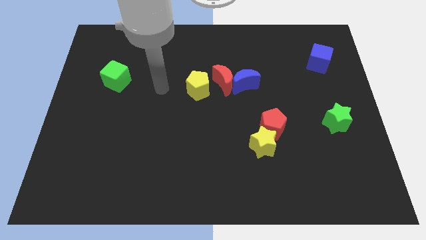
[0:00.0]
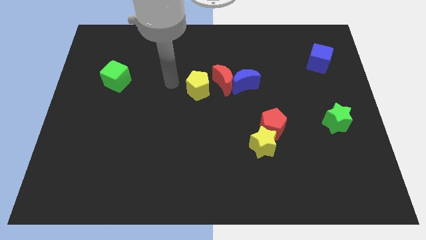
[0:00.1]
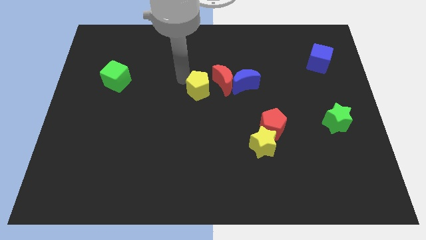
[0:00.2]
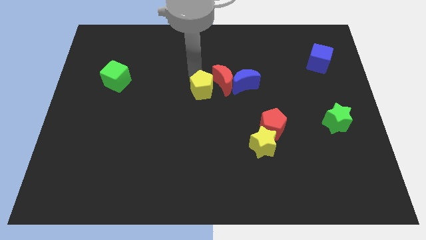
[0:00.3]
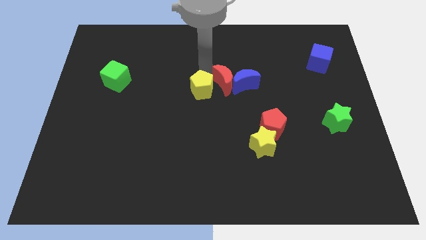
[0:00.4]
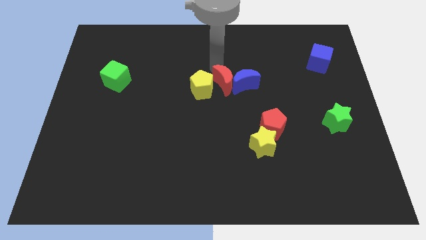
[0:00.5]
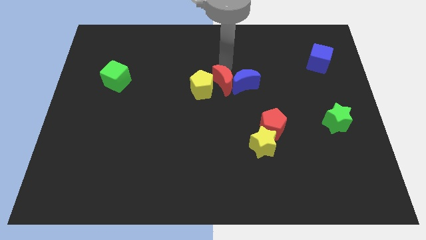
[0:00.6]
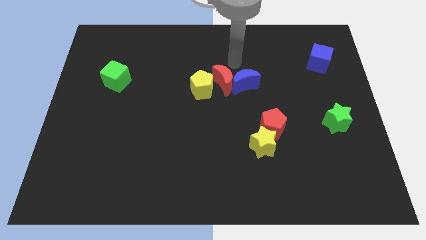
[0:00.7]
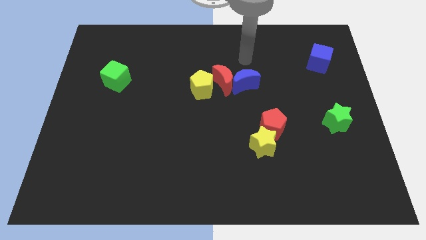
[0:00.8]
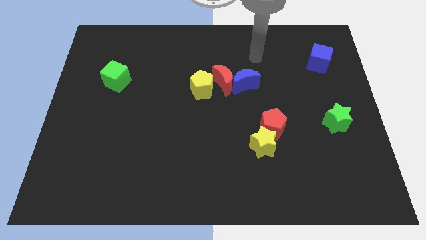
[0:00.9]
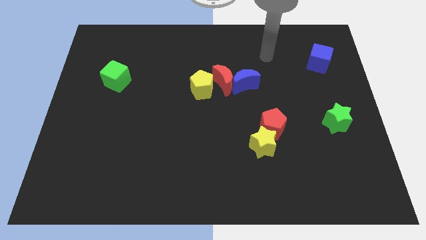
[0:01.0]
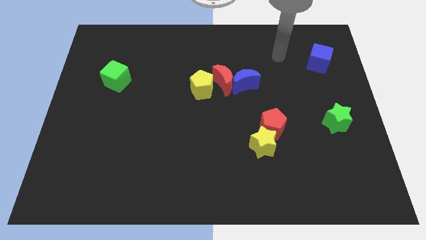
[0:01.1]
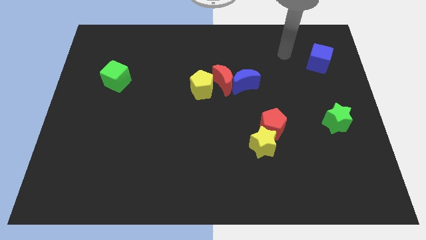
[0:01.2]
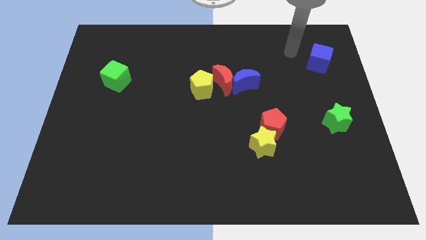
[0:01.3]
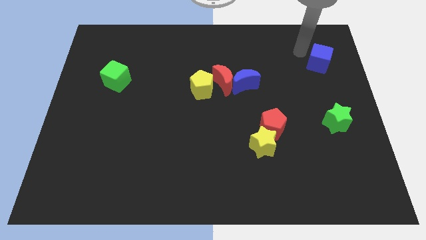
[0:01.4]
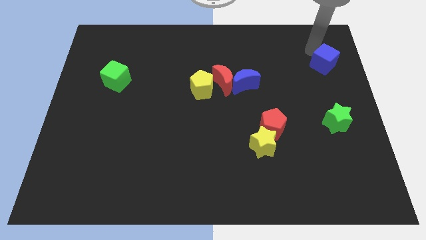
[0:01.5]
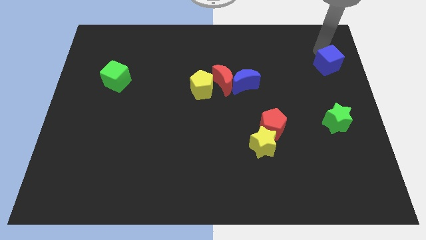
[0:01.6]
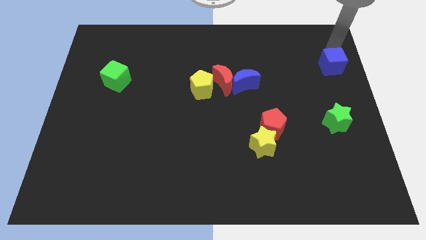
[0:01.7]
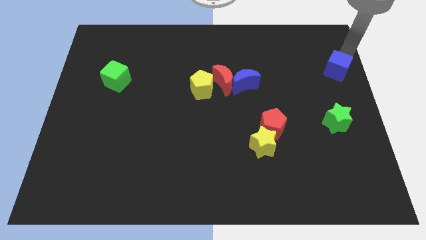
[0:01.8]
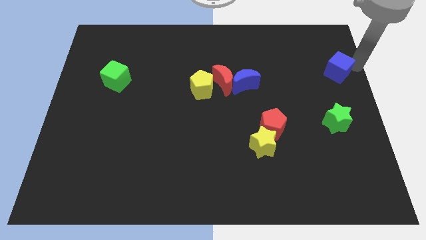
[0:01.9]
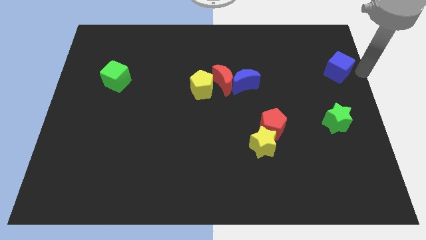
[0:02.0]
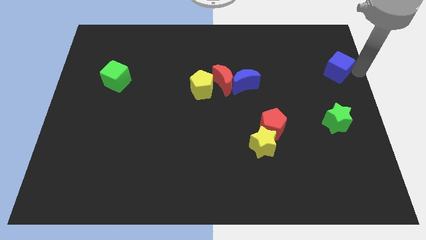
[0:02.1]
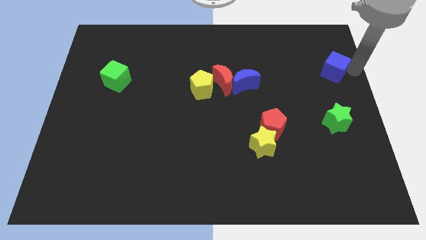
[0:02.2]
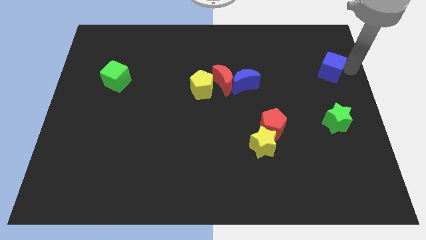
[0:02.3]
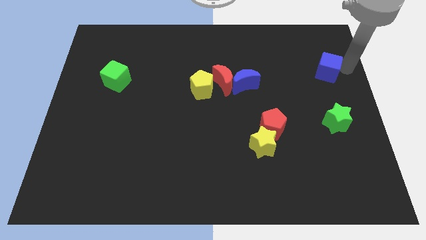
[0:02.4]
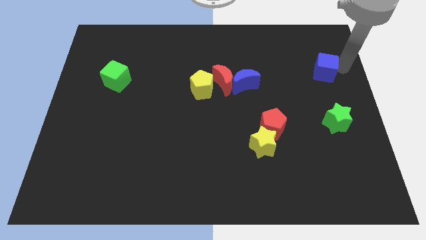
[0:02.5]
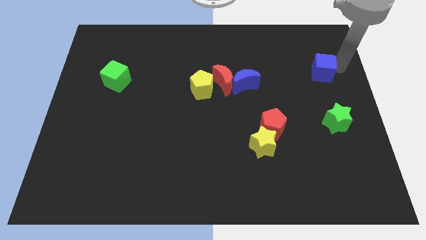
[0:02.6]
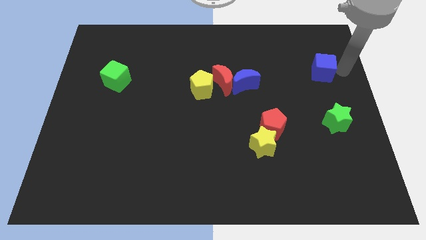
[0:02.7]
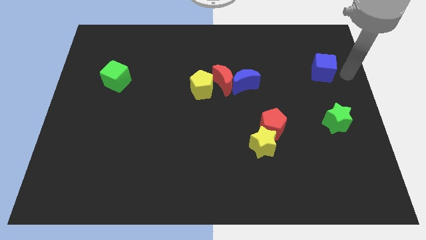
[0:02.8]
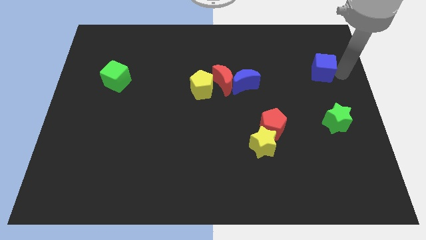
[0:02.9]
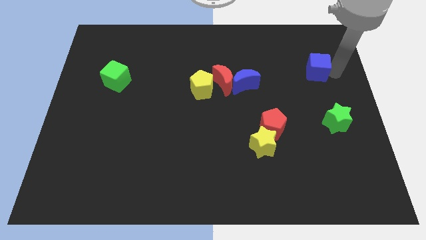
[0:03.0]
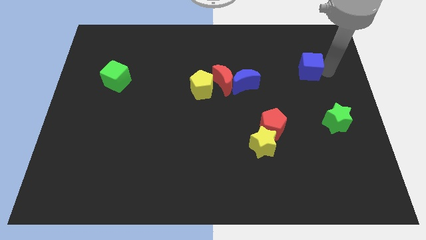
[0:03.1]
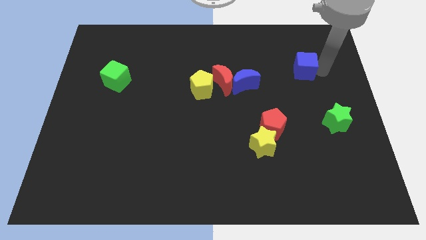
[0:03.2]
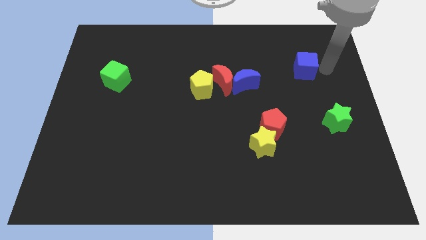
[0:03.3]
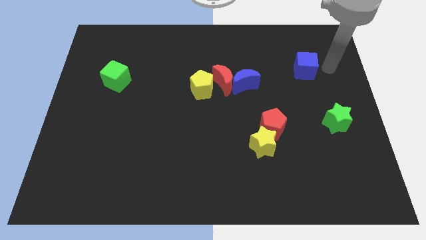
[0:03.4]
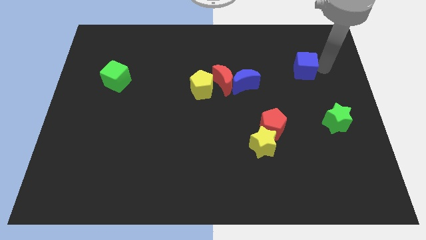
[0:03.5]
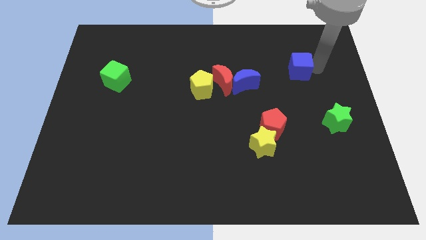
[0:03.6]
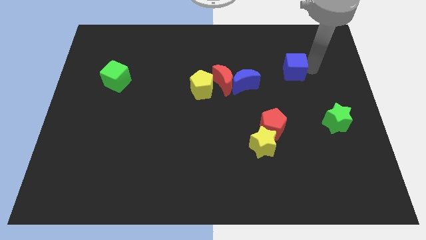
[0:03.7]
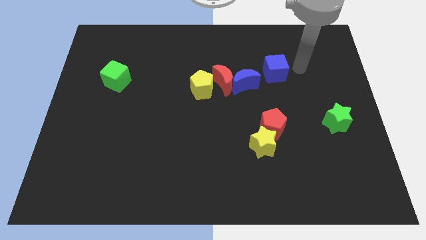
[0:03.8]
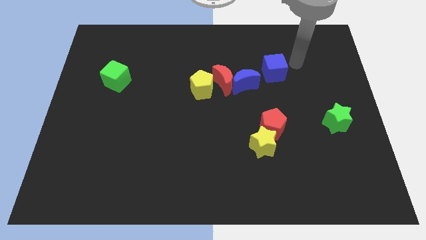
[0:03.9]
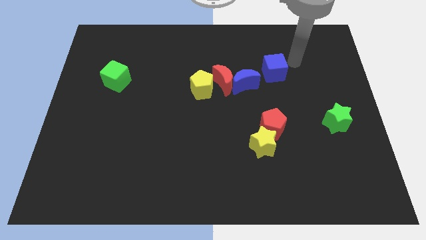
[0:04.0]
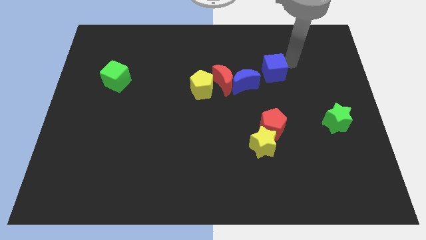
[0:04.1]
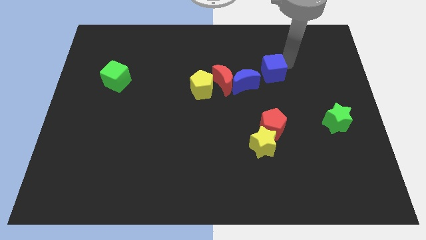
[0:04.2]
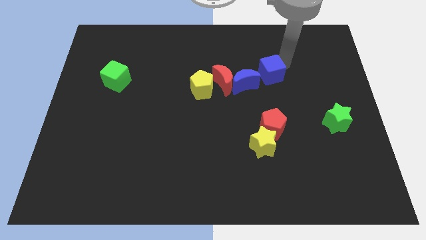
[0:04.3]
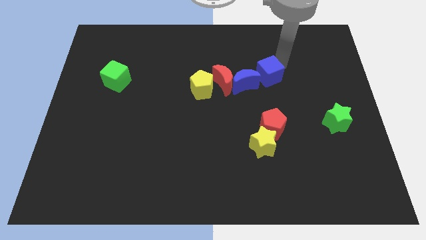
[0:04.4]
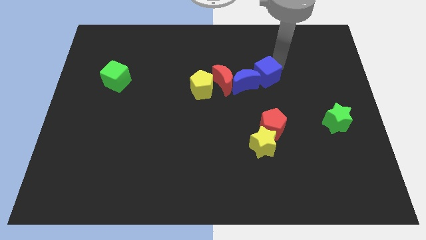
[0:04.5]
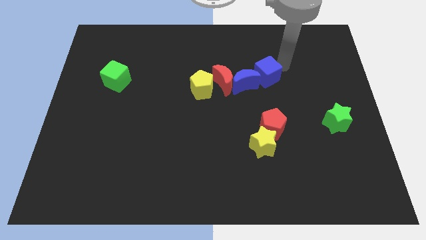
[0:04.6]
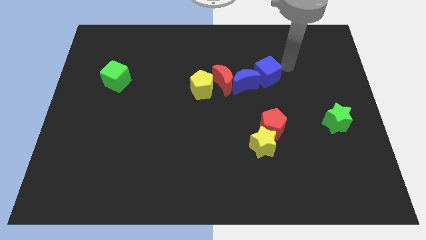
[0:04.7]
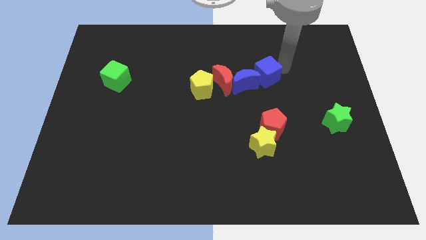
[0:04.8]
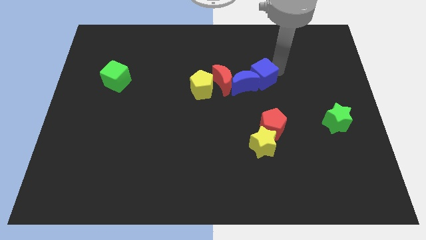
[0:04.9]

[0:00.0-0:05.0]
move the blue cube close to the blue moon

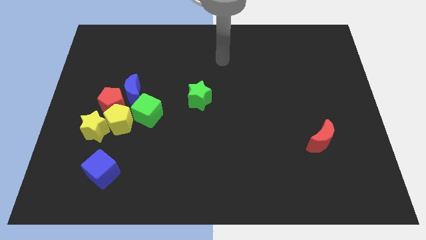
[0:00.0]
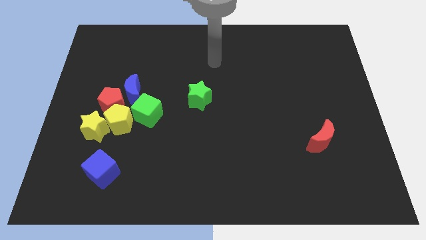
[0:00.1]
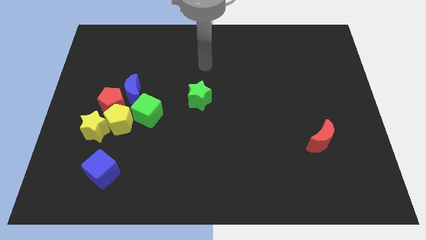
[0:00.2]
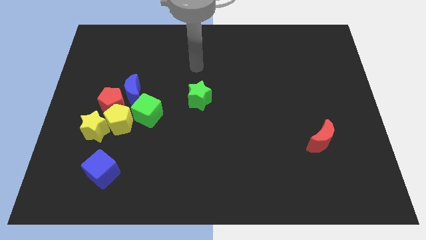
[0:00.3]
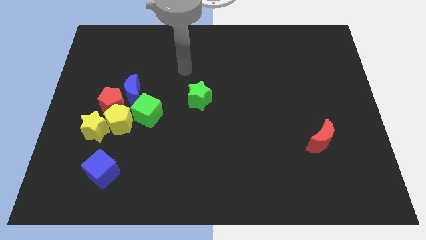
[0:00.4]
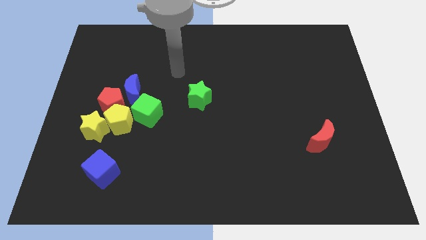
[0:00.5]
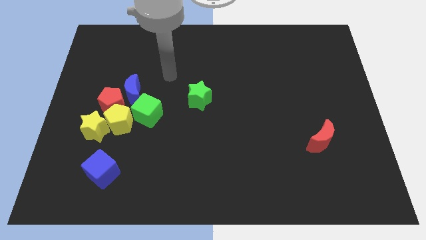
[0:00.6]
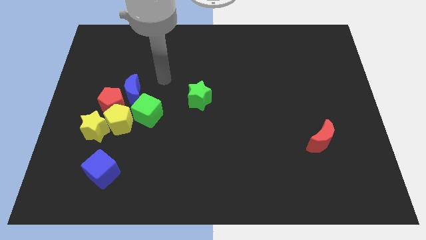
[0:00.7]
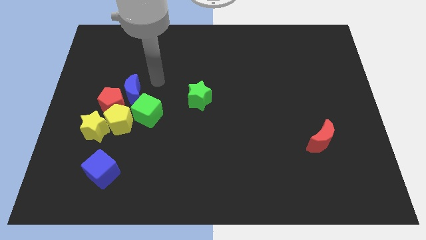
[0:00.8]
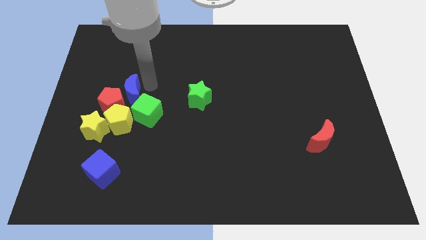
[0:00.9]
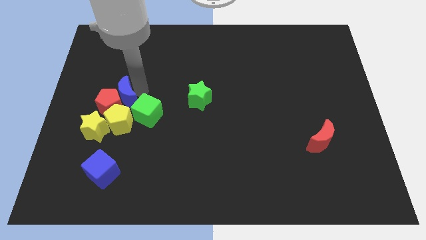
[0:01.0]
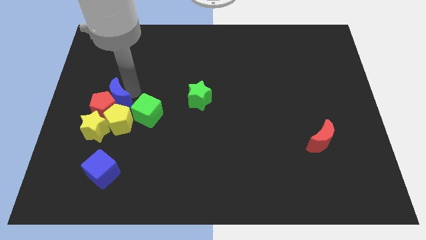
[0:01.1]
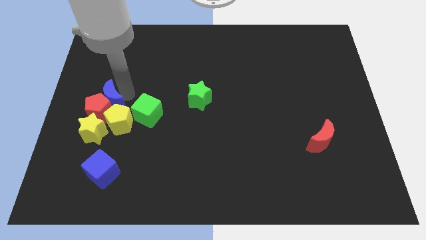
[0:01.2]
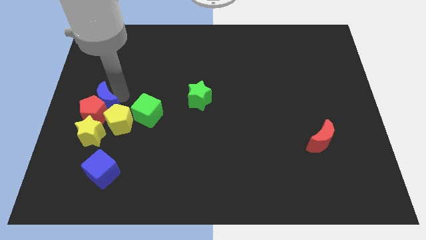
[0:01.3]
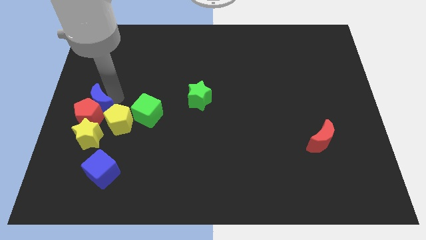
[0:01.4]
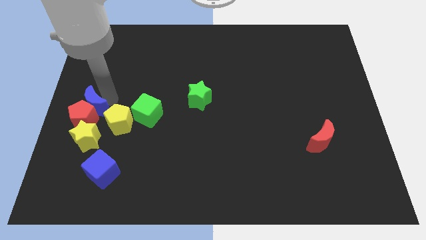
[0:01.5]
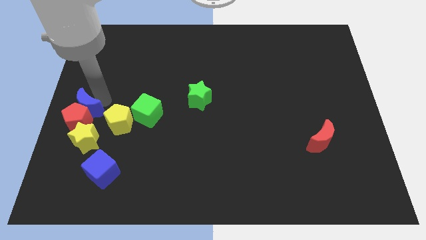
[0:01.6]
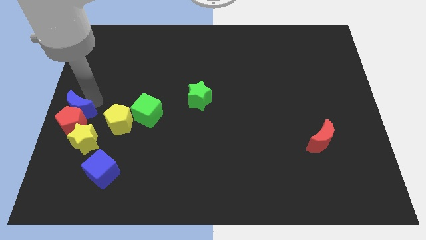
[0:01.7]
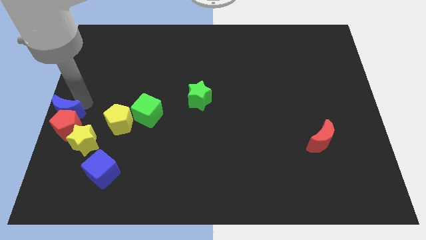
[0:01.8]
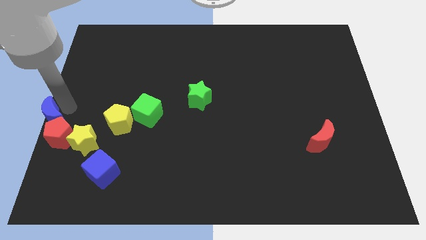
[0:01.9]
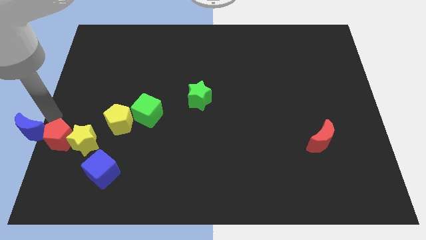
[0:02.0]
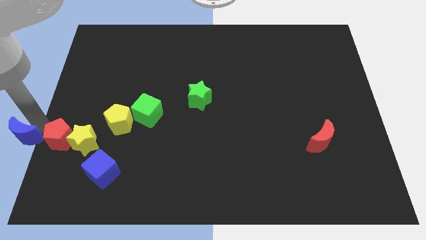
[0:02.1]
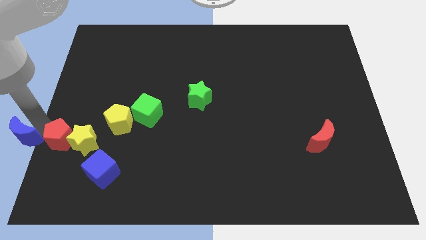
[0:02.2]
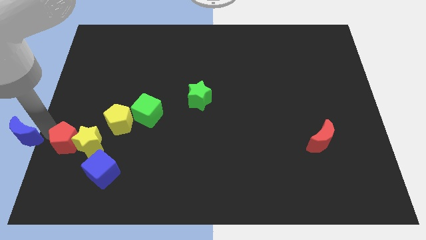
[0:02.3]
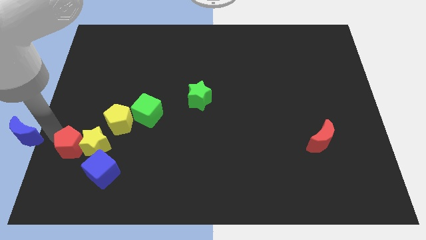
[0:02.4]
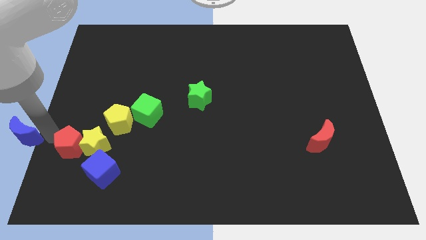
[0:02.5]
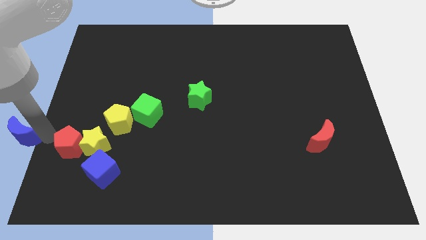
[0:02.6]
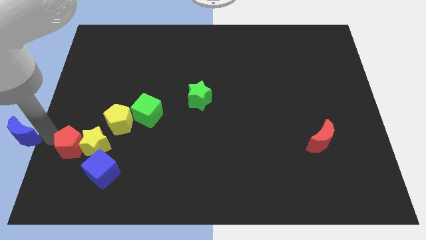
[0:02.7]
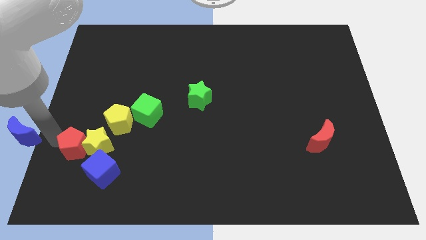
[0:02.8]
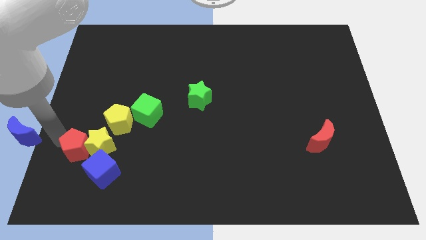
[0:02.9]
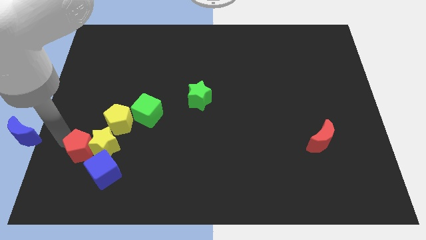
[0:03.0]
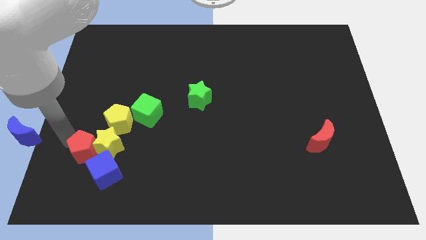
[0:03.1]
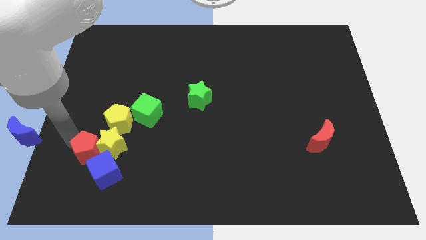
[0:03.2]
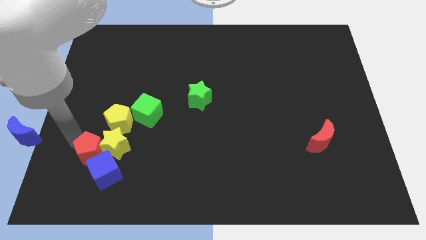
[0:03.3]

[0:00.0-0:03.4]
put the red pentagon towards the blue cube
